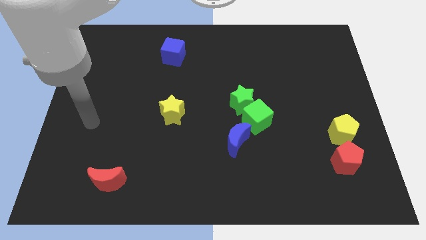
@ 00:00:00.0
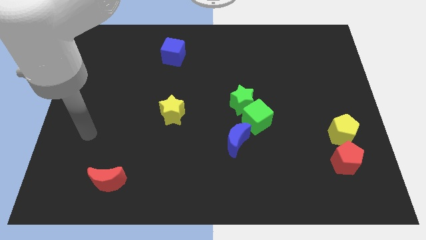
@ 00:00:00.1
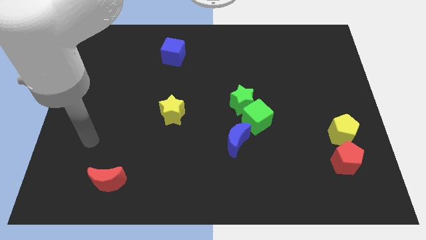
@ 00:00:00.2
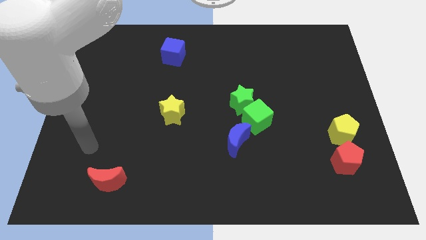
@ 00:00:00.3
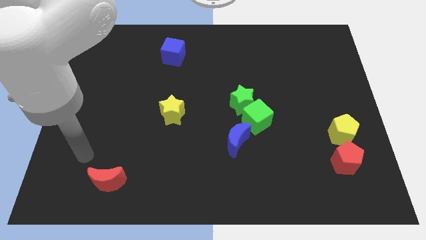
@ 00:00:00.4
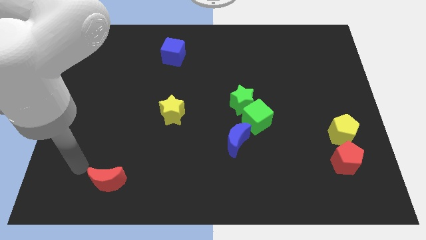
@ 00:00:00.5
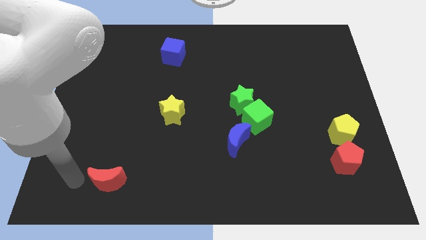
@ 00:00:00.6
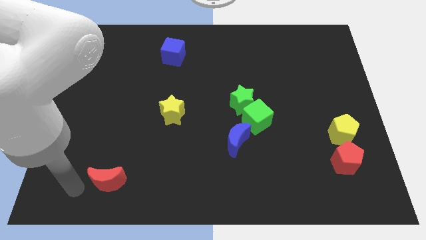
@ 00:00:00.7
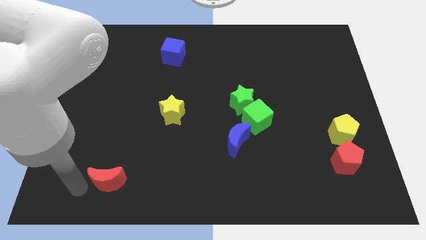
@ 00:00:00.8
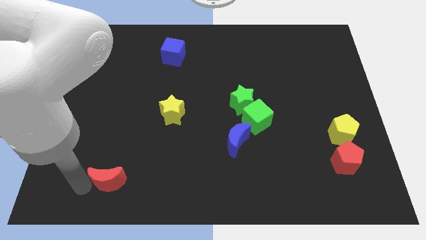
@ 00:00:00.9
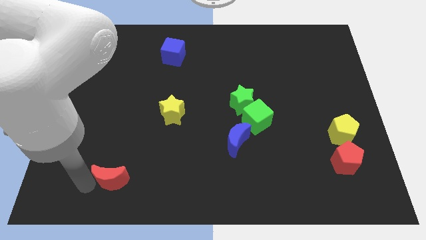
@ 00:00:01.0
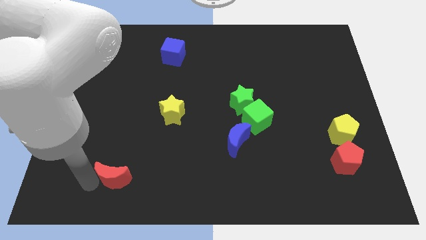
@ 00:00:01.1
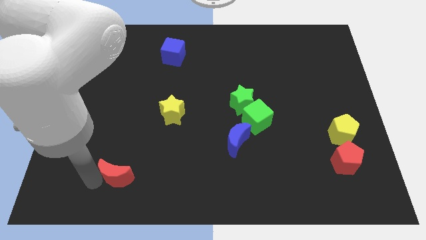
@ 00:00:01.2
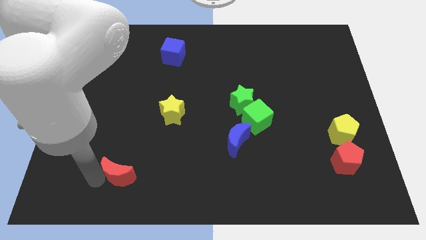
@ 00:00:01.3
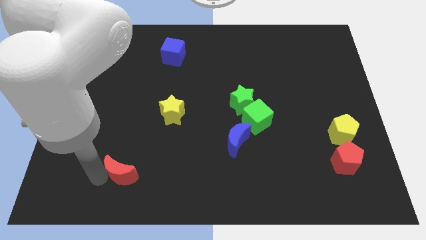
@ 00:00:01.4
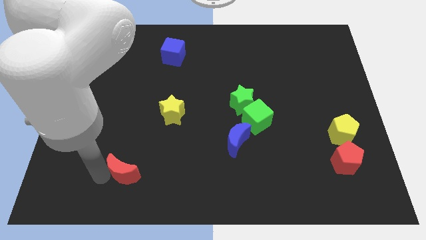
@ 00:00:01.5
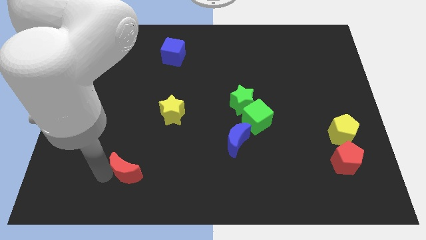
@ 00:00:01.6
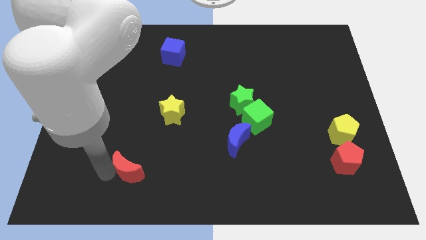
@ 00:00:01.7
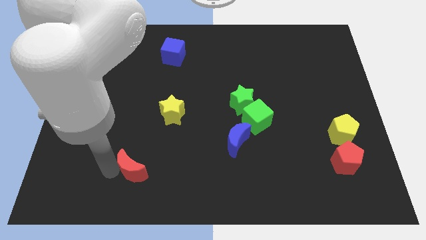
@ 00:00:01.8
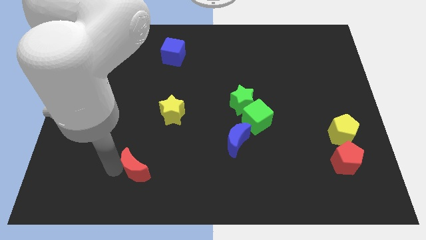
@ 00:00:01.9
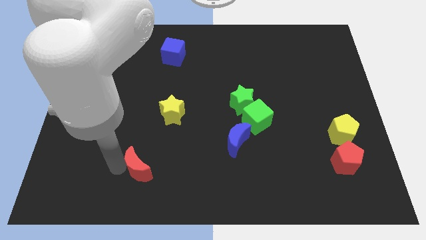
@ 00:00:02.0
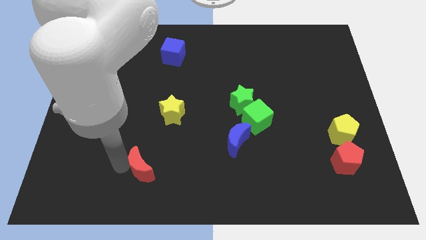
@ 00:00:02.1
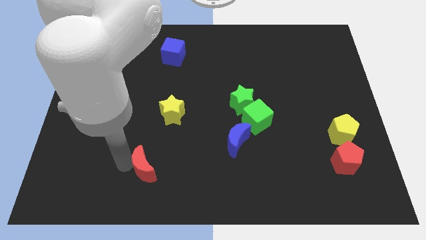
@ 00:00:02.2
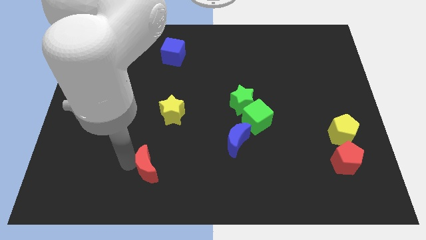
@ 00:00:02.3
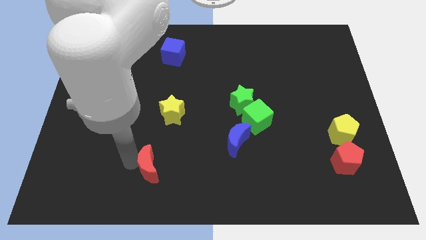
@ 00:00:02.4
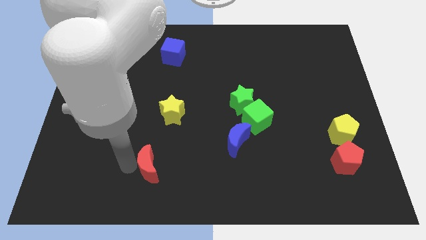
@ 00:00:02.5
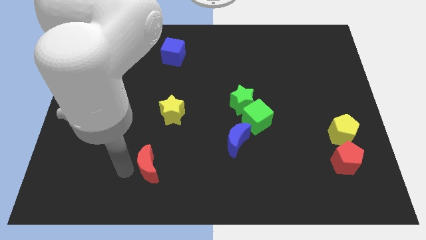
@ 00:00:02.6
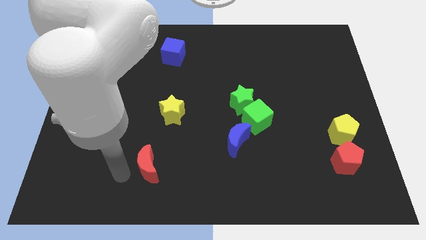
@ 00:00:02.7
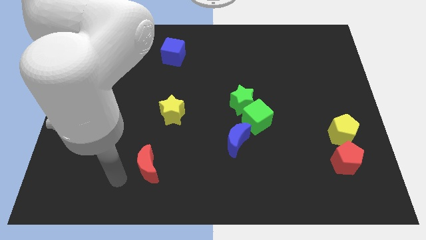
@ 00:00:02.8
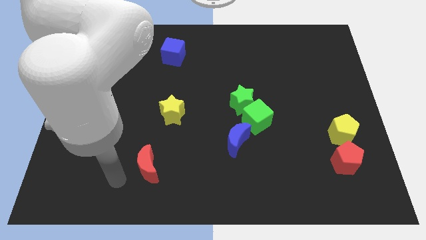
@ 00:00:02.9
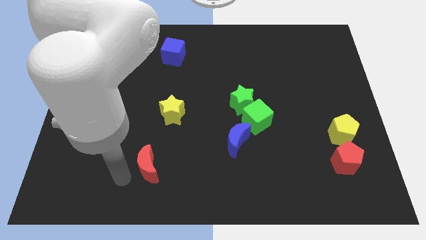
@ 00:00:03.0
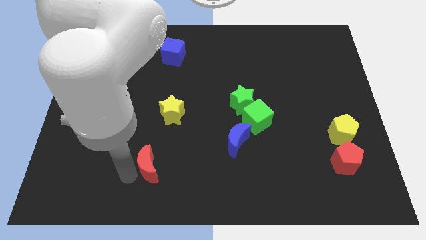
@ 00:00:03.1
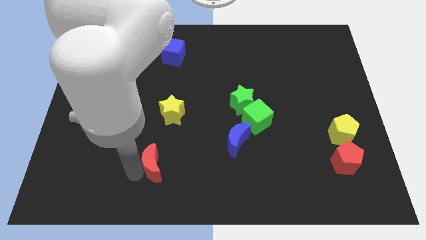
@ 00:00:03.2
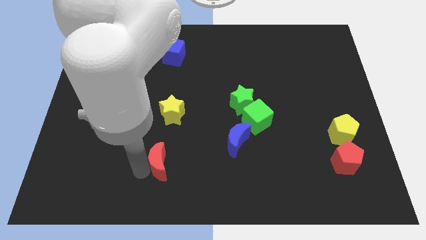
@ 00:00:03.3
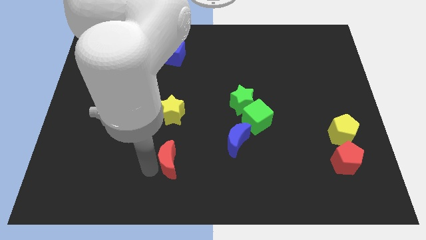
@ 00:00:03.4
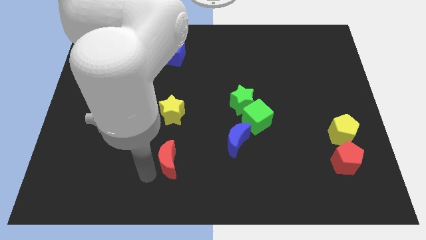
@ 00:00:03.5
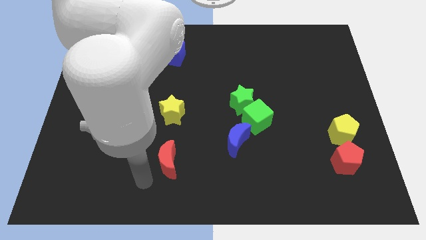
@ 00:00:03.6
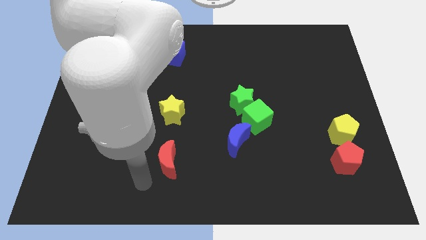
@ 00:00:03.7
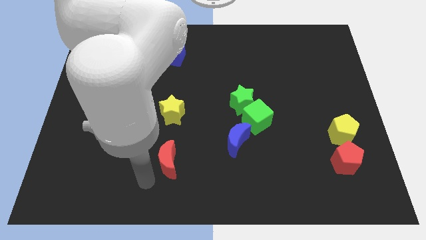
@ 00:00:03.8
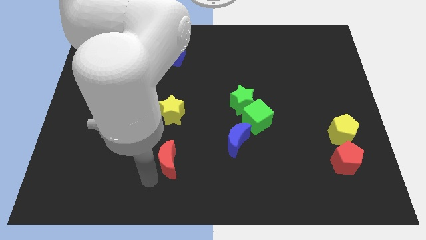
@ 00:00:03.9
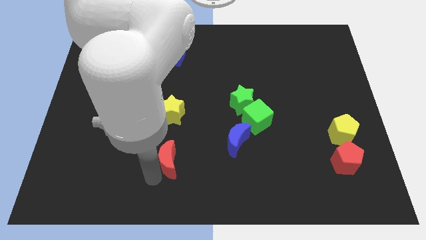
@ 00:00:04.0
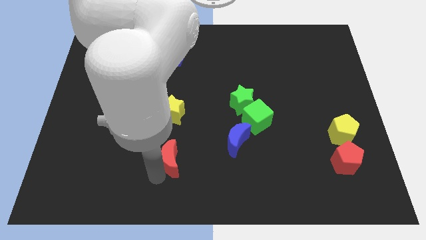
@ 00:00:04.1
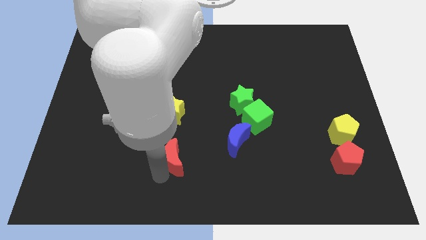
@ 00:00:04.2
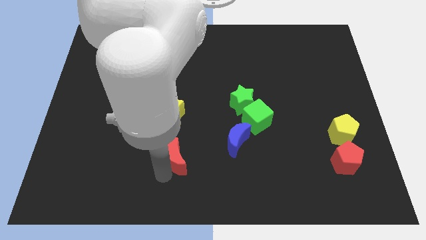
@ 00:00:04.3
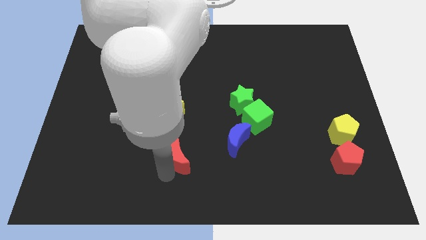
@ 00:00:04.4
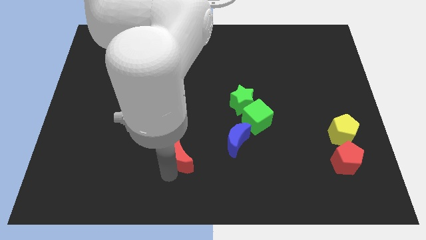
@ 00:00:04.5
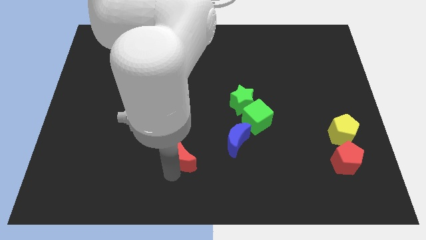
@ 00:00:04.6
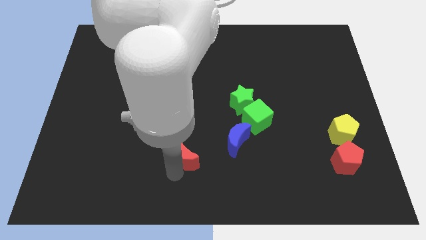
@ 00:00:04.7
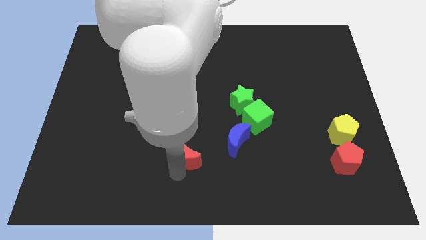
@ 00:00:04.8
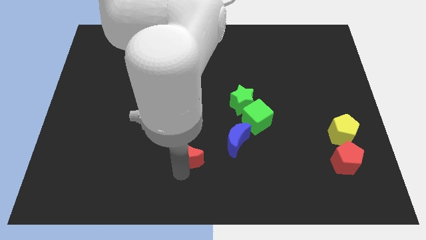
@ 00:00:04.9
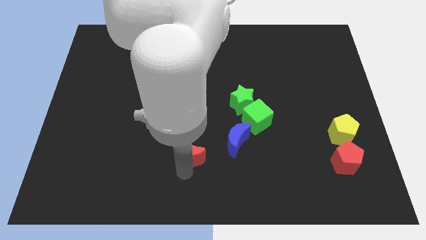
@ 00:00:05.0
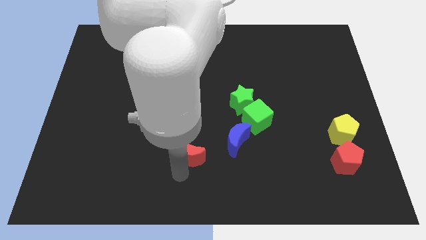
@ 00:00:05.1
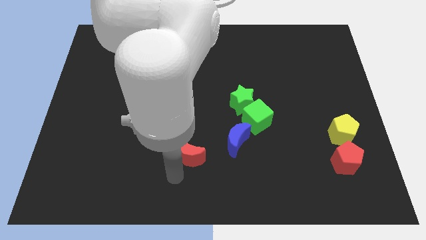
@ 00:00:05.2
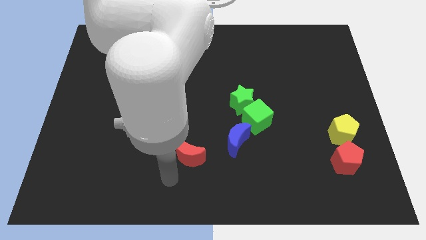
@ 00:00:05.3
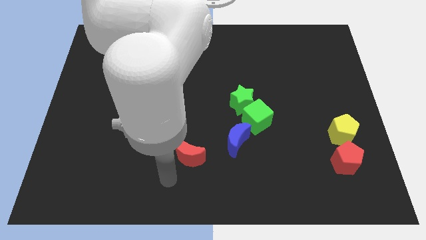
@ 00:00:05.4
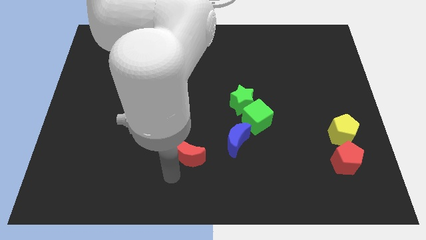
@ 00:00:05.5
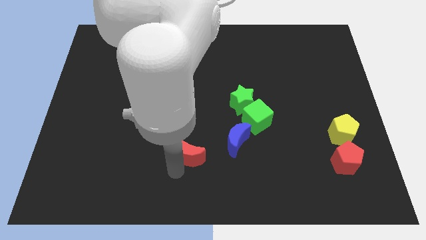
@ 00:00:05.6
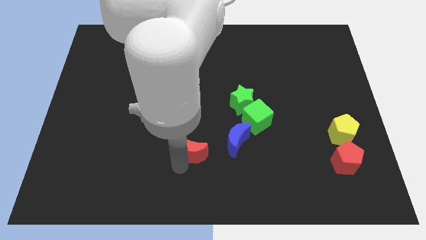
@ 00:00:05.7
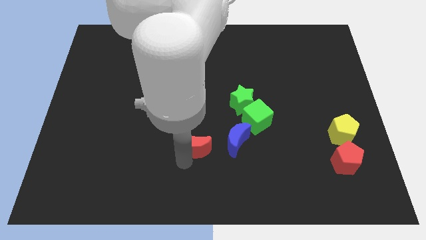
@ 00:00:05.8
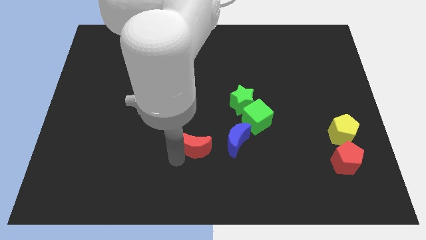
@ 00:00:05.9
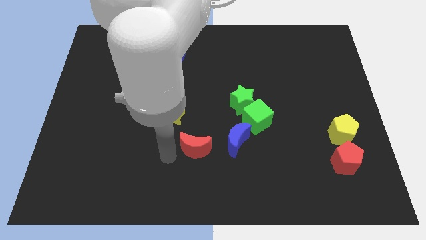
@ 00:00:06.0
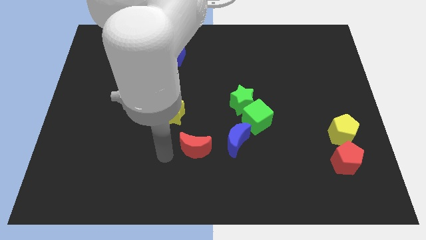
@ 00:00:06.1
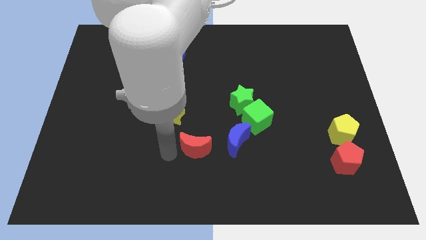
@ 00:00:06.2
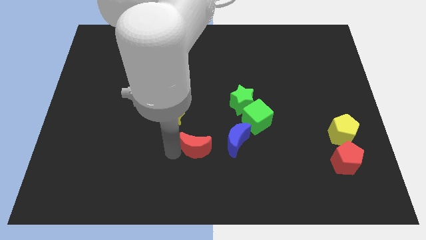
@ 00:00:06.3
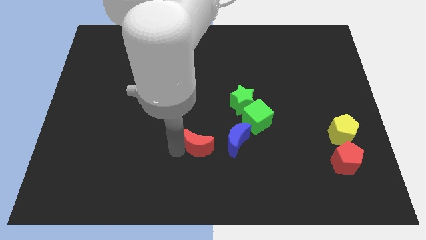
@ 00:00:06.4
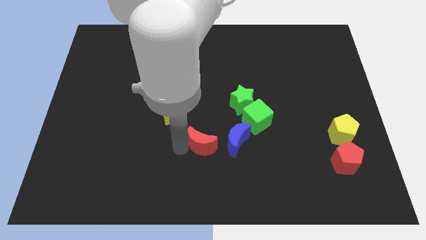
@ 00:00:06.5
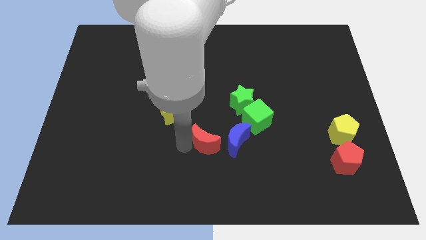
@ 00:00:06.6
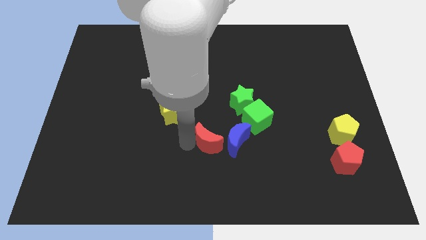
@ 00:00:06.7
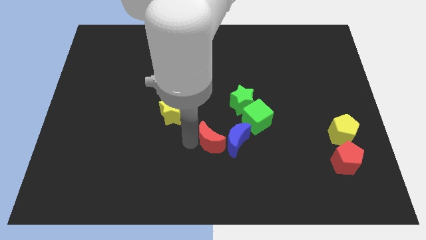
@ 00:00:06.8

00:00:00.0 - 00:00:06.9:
move the red moon next to the blue moon

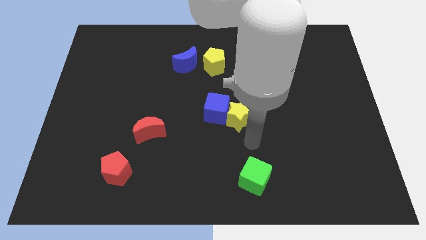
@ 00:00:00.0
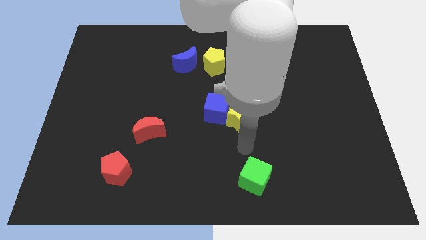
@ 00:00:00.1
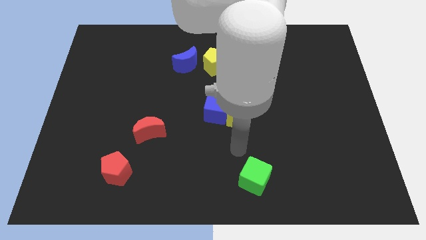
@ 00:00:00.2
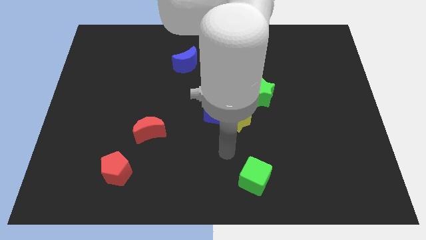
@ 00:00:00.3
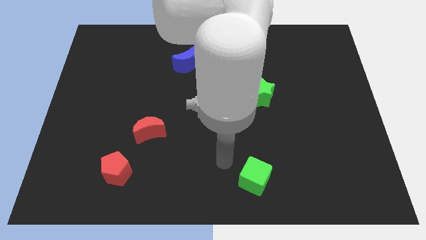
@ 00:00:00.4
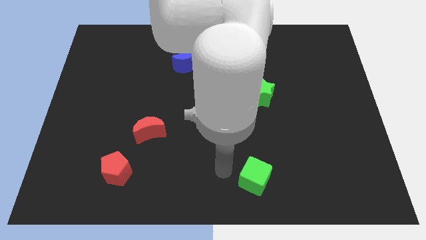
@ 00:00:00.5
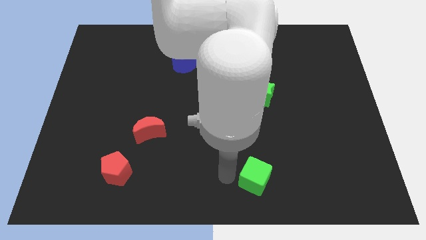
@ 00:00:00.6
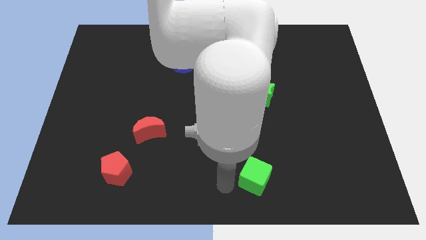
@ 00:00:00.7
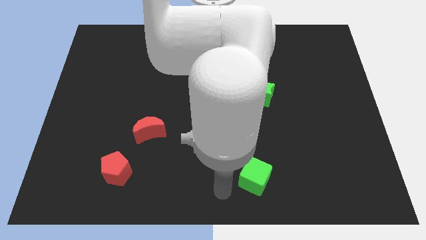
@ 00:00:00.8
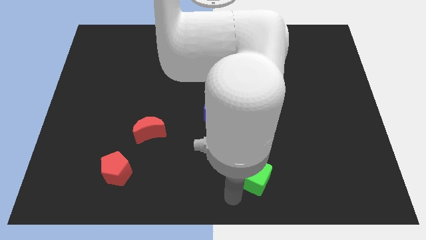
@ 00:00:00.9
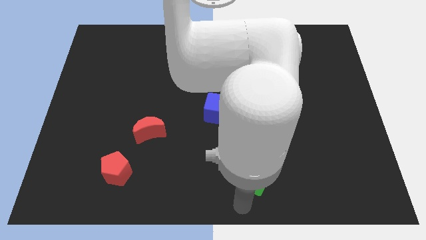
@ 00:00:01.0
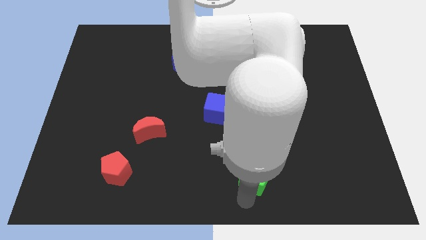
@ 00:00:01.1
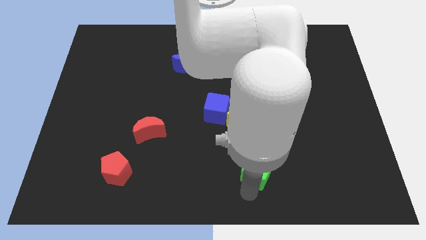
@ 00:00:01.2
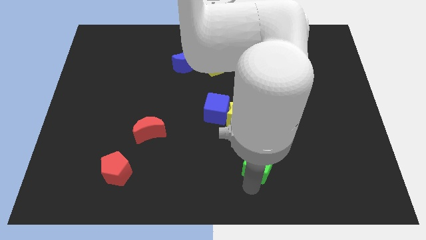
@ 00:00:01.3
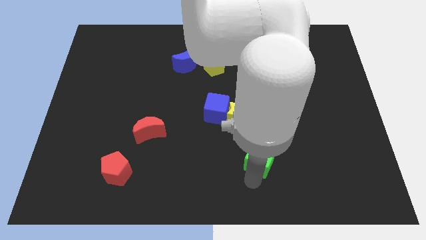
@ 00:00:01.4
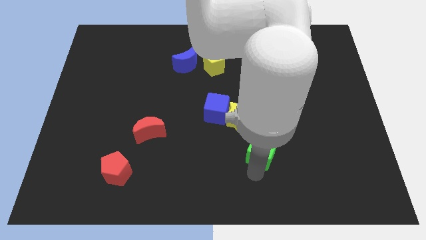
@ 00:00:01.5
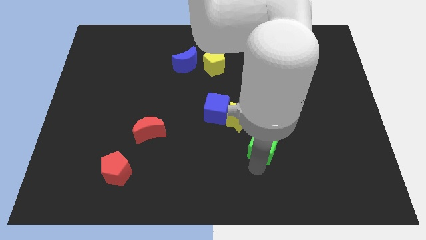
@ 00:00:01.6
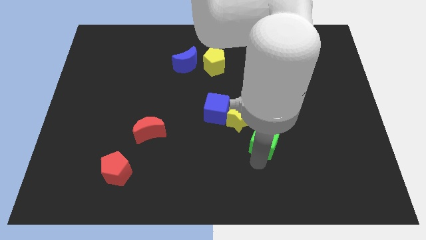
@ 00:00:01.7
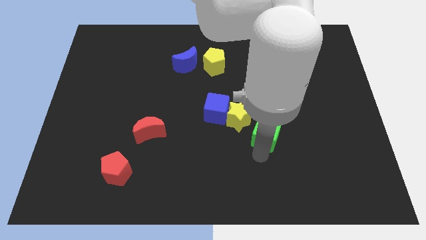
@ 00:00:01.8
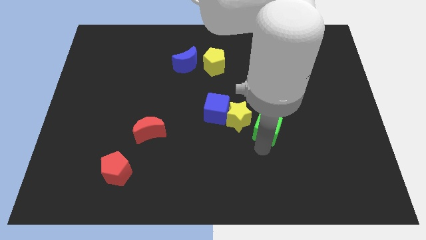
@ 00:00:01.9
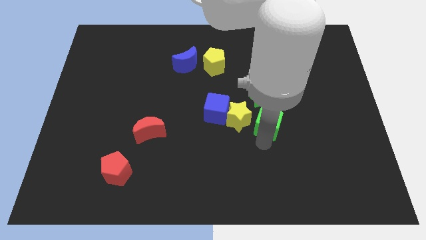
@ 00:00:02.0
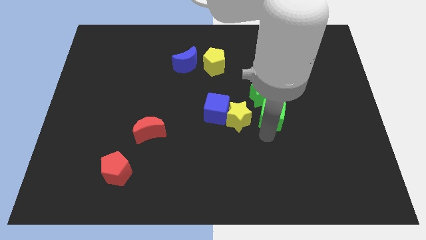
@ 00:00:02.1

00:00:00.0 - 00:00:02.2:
slide the green cube next to the green star
